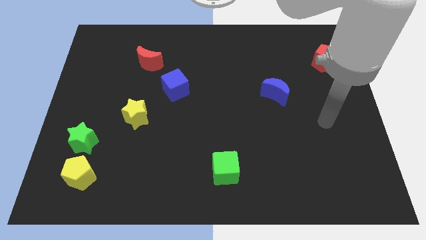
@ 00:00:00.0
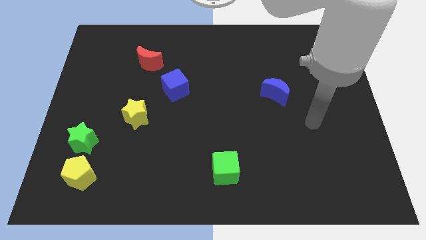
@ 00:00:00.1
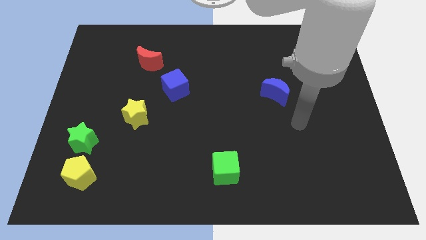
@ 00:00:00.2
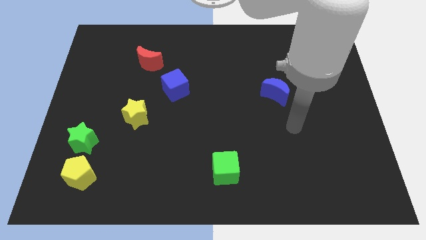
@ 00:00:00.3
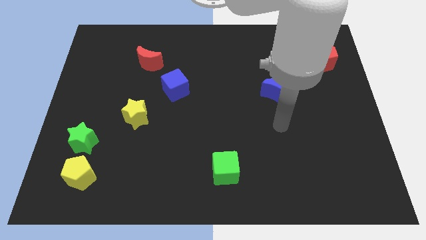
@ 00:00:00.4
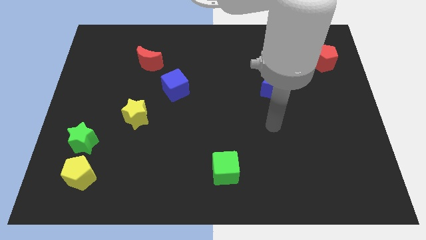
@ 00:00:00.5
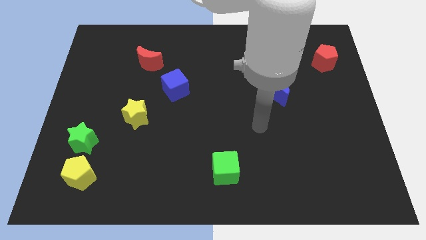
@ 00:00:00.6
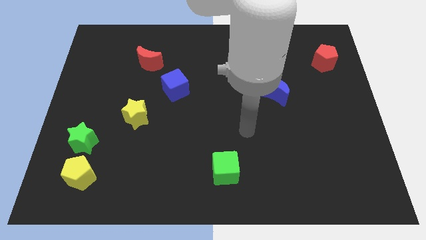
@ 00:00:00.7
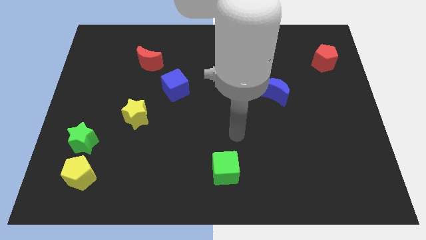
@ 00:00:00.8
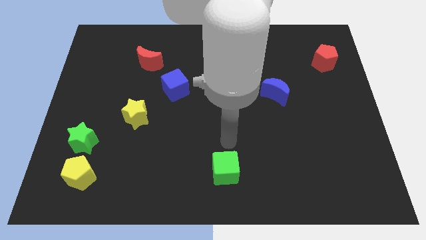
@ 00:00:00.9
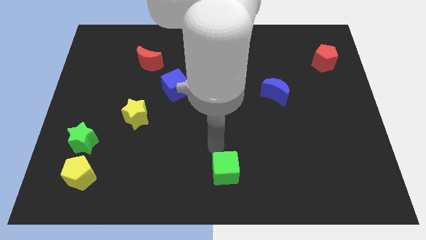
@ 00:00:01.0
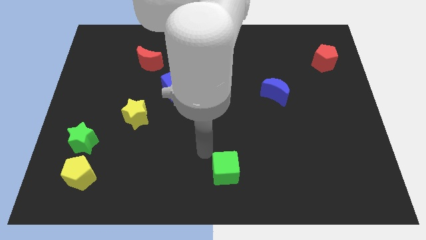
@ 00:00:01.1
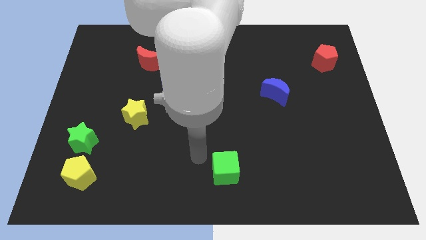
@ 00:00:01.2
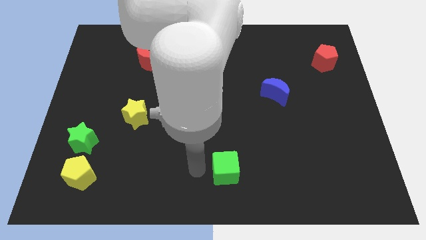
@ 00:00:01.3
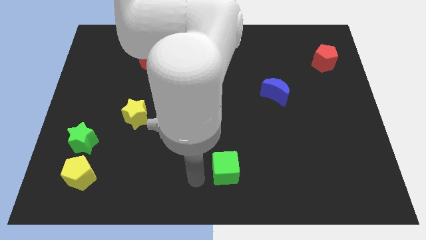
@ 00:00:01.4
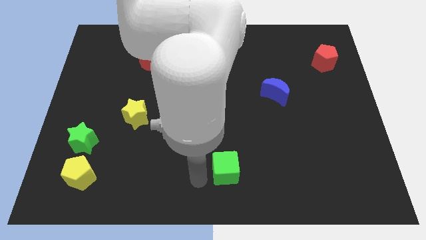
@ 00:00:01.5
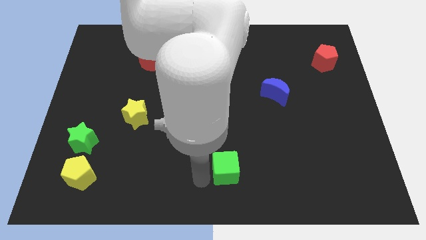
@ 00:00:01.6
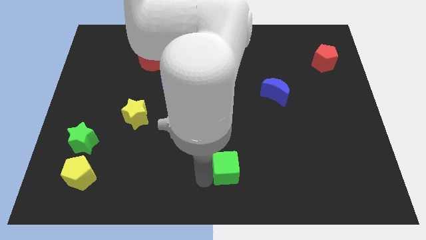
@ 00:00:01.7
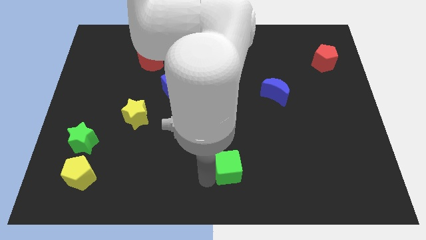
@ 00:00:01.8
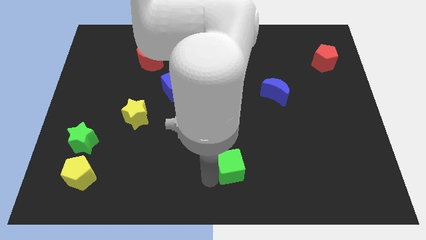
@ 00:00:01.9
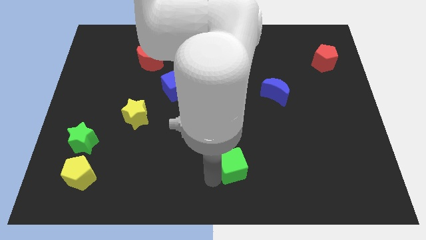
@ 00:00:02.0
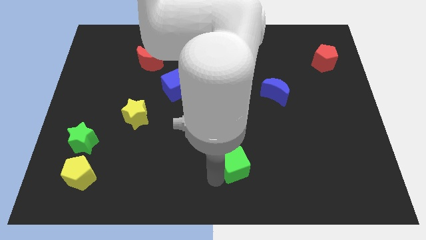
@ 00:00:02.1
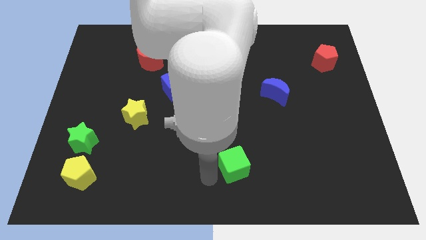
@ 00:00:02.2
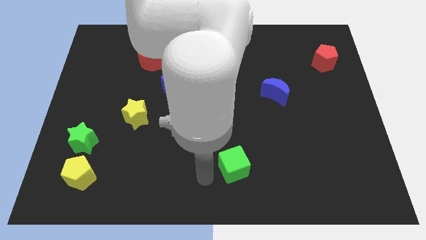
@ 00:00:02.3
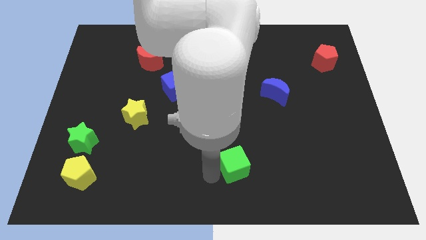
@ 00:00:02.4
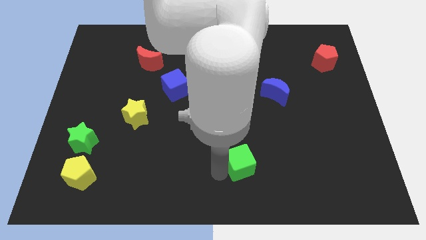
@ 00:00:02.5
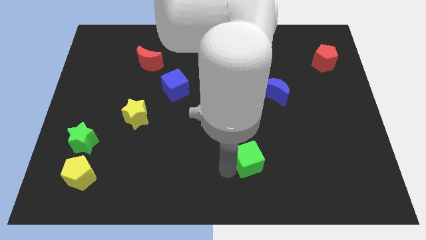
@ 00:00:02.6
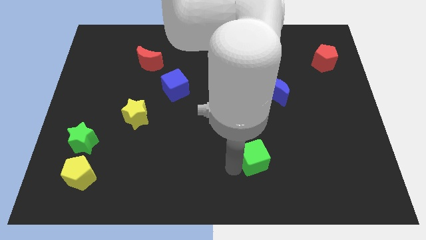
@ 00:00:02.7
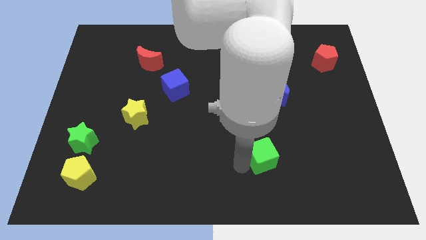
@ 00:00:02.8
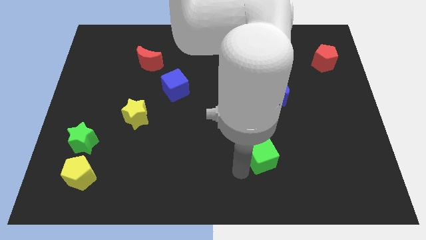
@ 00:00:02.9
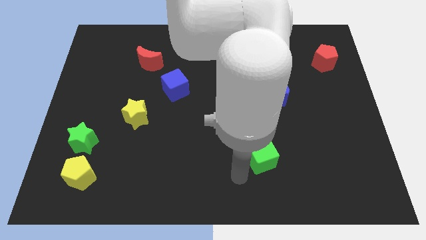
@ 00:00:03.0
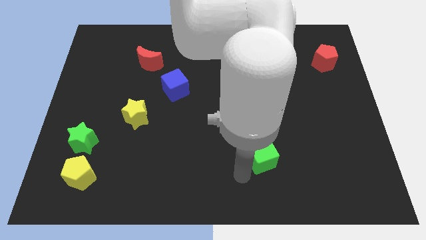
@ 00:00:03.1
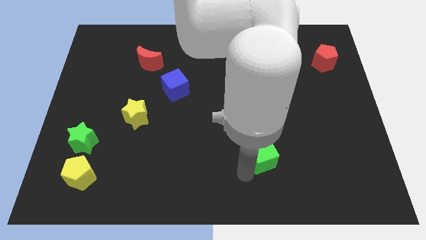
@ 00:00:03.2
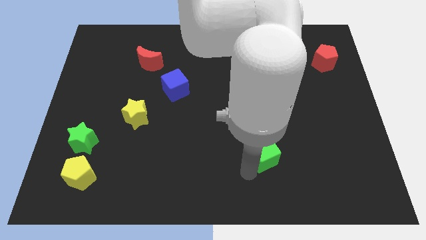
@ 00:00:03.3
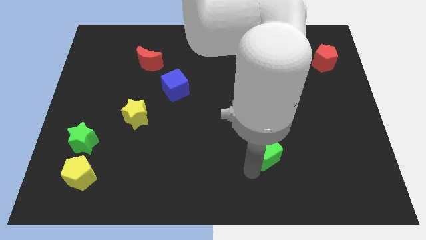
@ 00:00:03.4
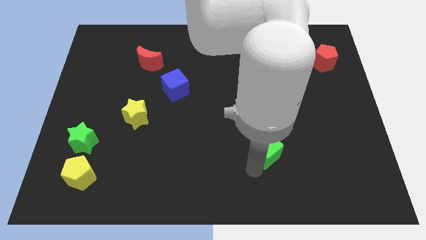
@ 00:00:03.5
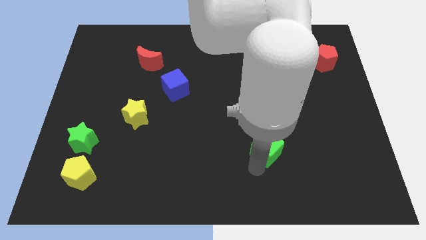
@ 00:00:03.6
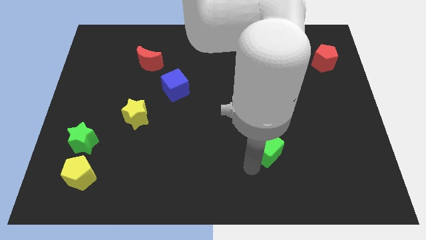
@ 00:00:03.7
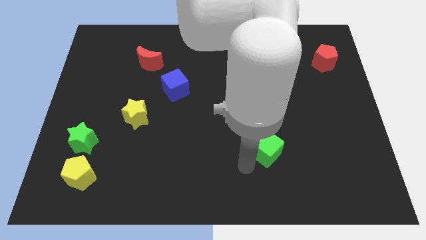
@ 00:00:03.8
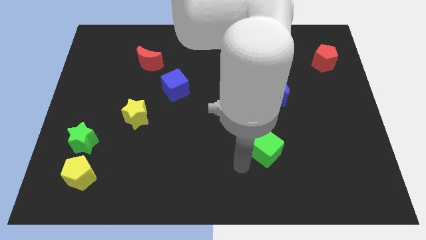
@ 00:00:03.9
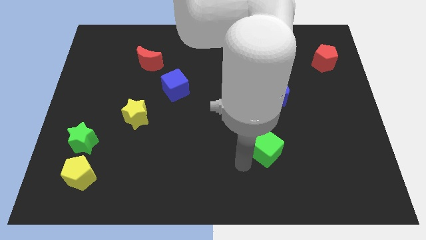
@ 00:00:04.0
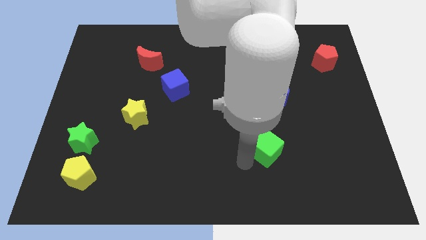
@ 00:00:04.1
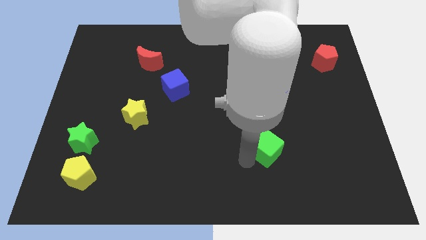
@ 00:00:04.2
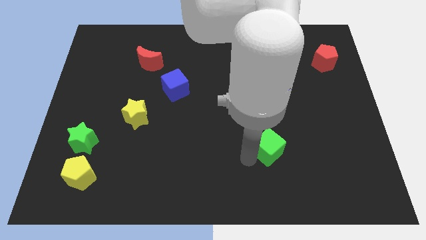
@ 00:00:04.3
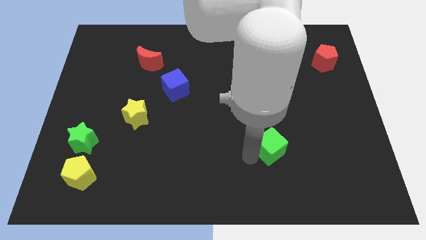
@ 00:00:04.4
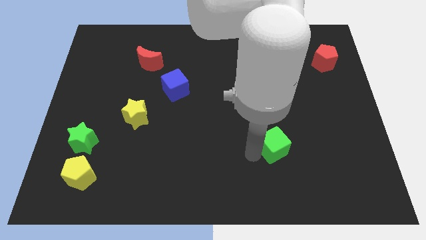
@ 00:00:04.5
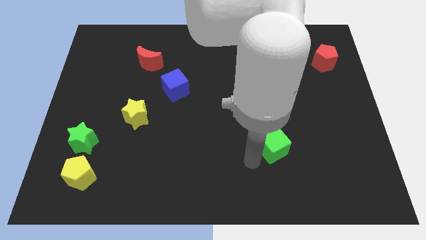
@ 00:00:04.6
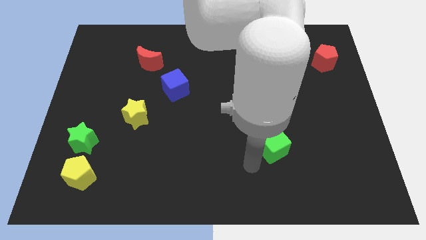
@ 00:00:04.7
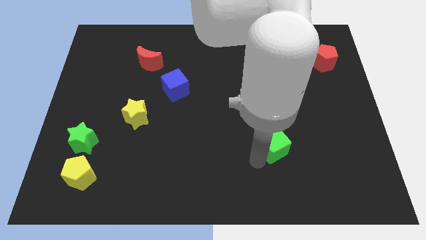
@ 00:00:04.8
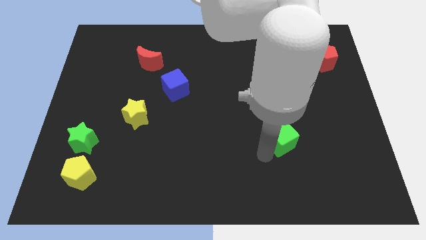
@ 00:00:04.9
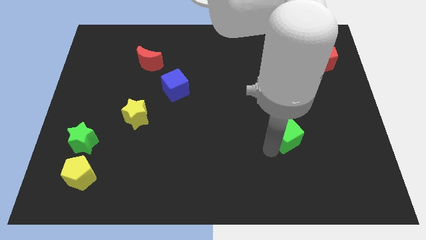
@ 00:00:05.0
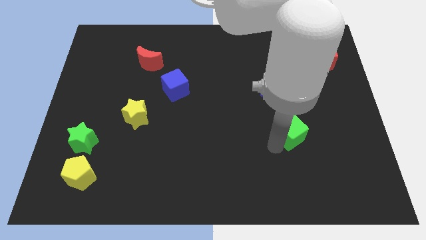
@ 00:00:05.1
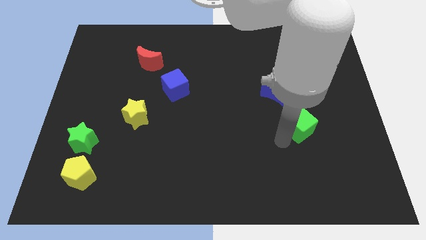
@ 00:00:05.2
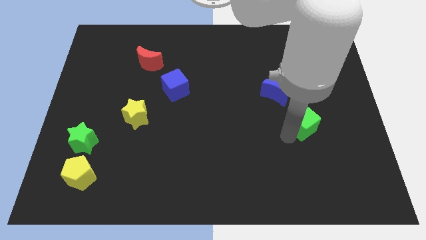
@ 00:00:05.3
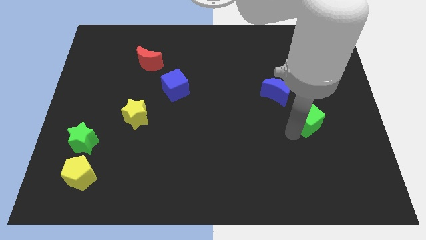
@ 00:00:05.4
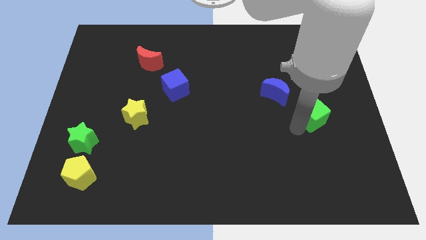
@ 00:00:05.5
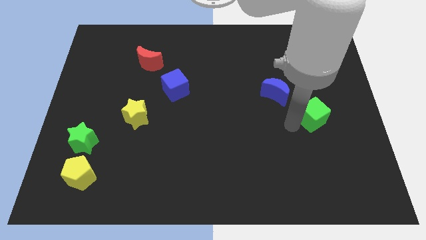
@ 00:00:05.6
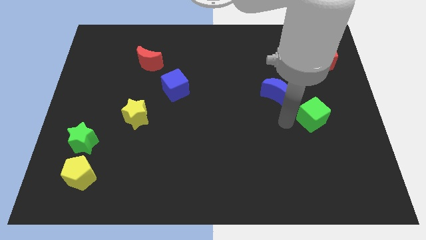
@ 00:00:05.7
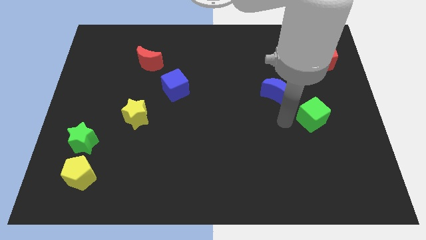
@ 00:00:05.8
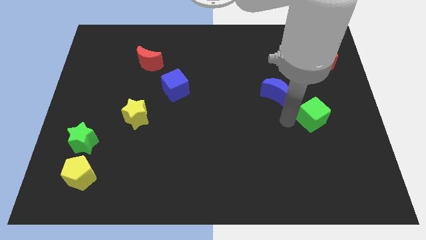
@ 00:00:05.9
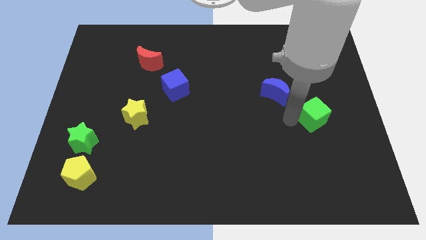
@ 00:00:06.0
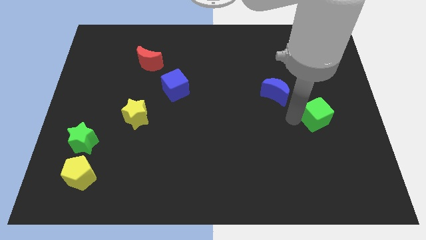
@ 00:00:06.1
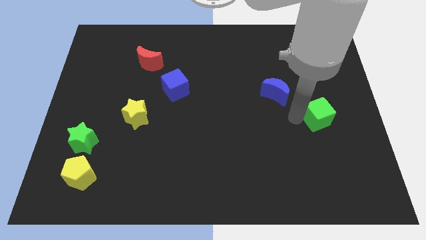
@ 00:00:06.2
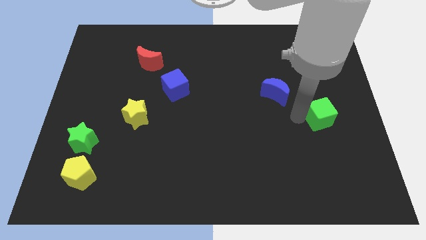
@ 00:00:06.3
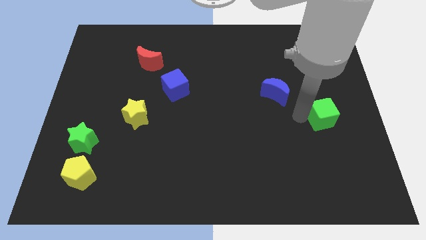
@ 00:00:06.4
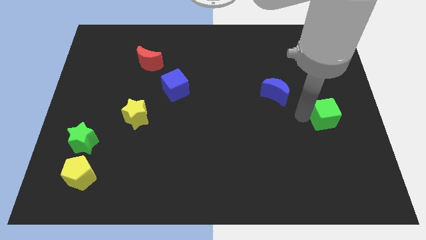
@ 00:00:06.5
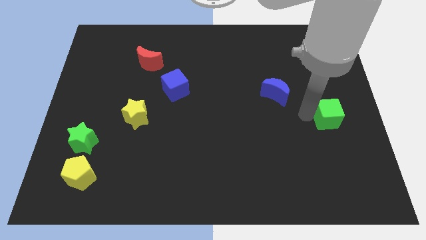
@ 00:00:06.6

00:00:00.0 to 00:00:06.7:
slide the green cube to the right side
